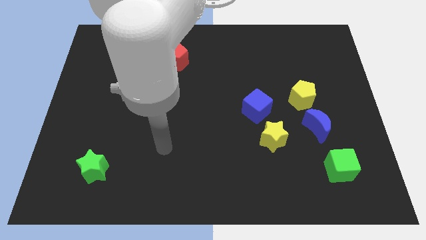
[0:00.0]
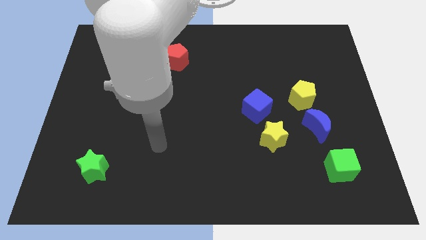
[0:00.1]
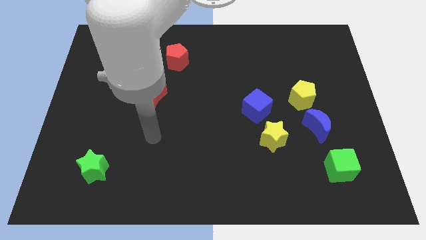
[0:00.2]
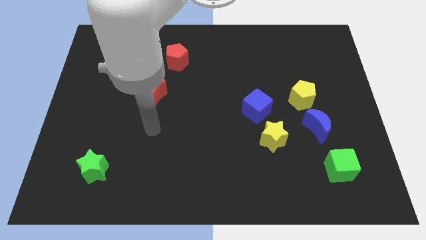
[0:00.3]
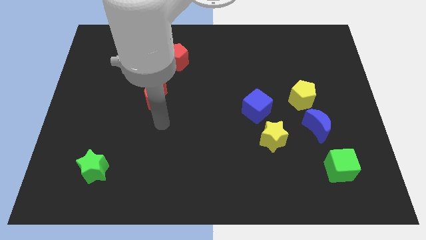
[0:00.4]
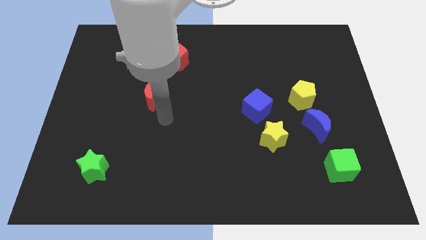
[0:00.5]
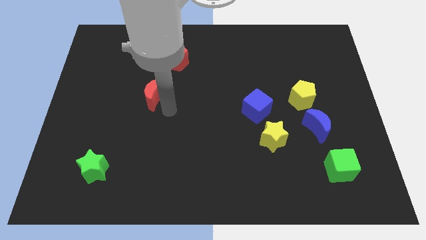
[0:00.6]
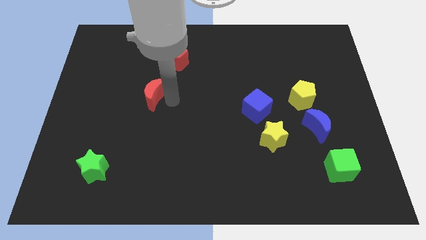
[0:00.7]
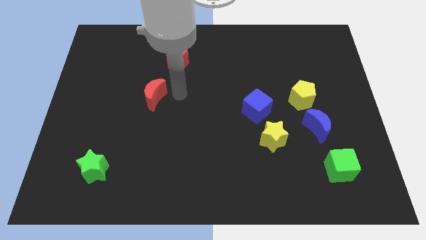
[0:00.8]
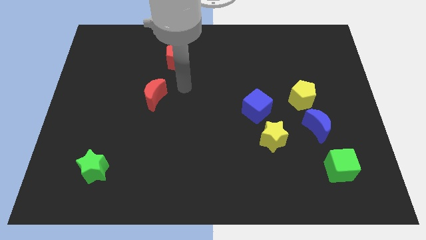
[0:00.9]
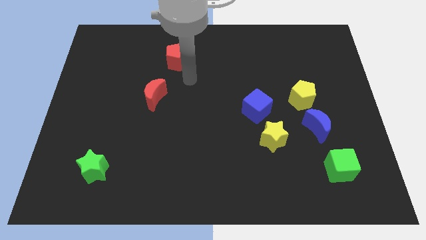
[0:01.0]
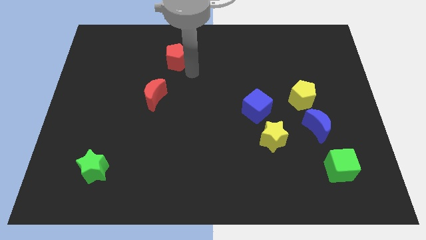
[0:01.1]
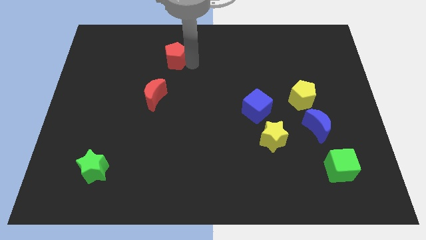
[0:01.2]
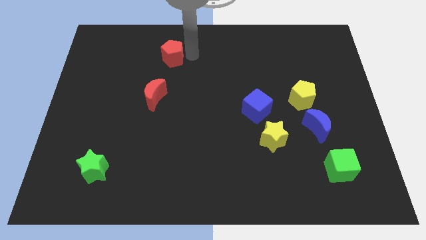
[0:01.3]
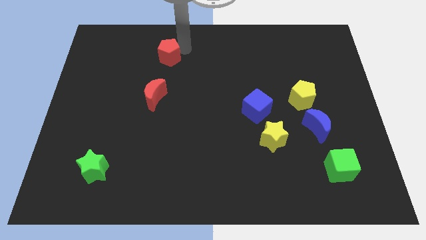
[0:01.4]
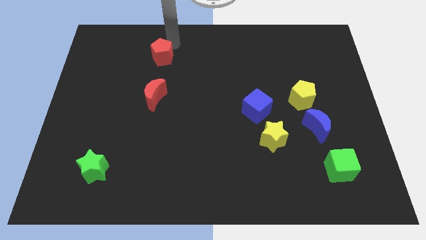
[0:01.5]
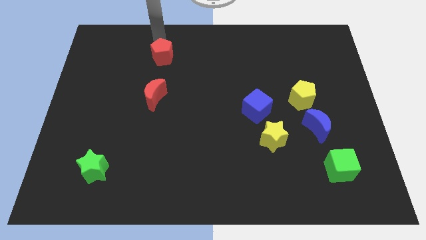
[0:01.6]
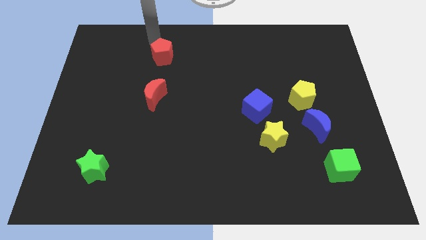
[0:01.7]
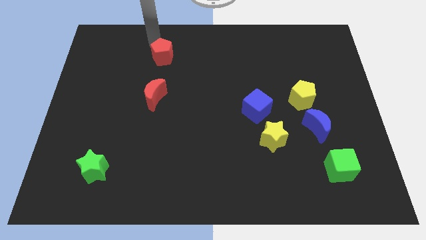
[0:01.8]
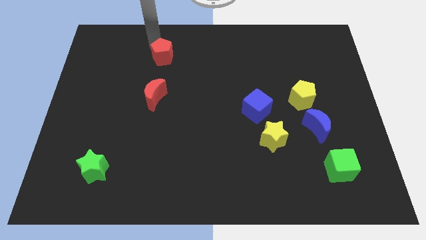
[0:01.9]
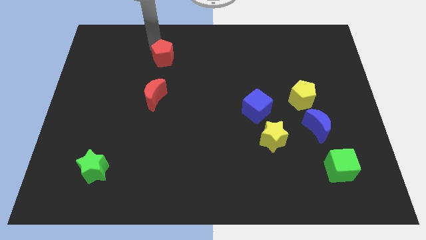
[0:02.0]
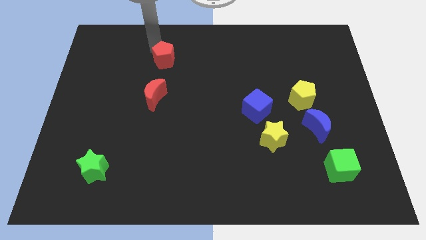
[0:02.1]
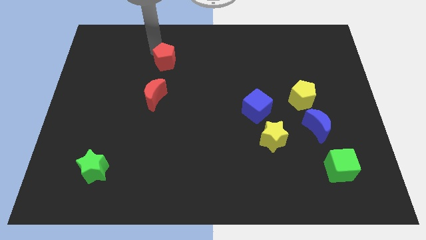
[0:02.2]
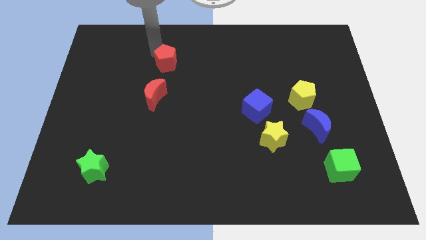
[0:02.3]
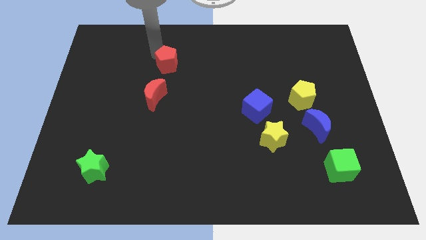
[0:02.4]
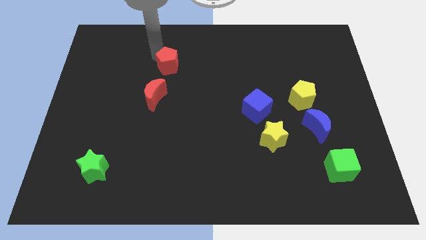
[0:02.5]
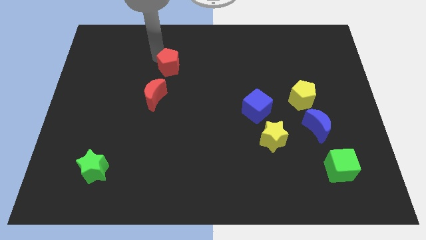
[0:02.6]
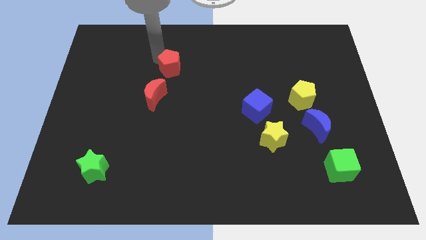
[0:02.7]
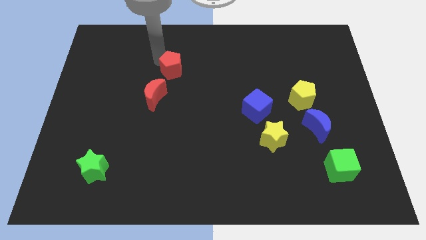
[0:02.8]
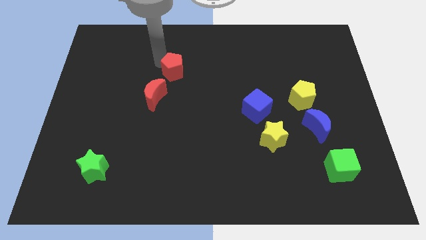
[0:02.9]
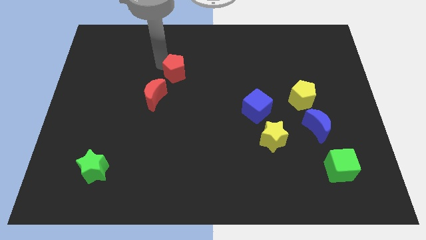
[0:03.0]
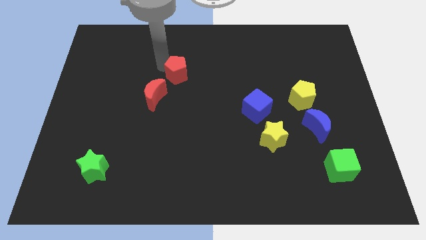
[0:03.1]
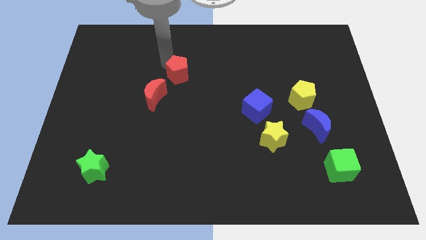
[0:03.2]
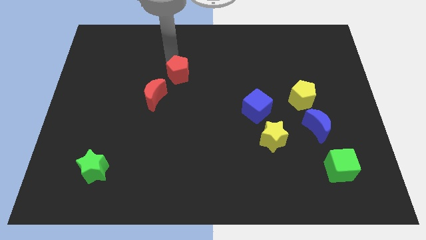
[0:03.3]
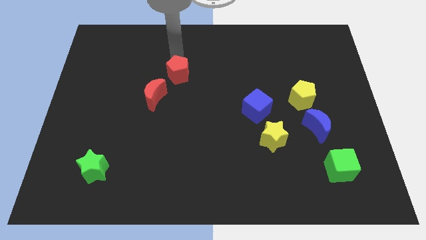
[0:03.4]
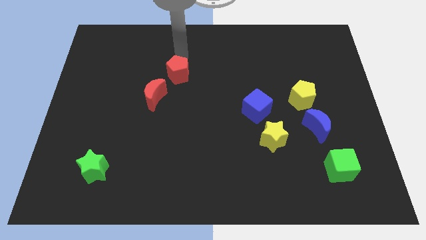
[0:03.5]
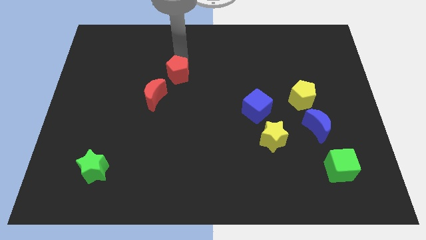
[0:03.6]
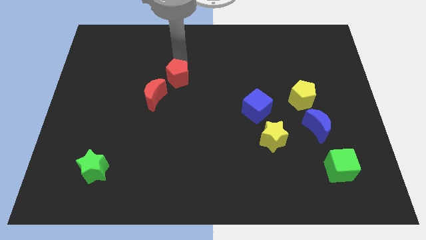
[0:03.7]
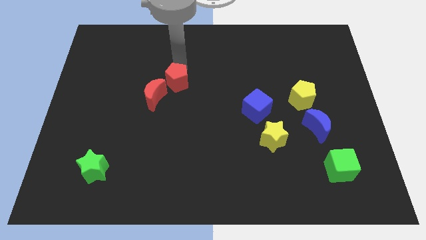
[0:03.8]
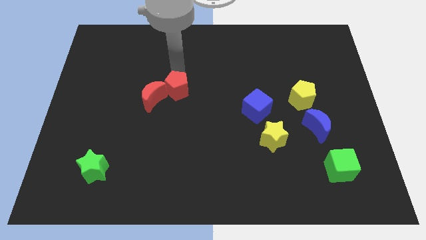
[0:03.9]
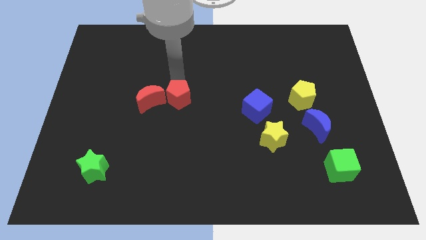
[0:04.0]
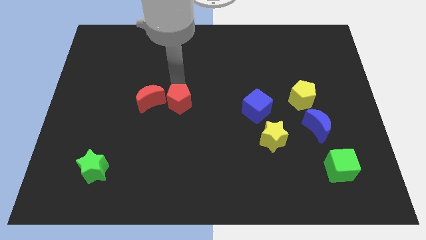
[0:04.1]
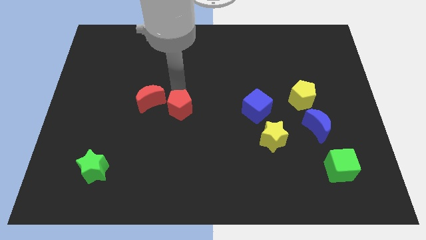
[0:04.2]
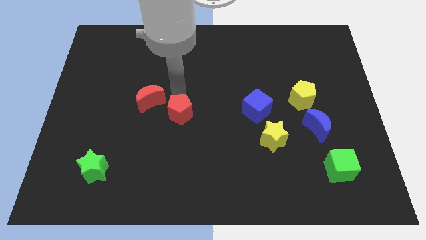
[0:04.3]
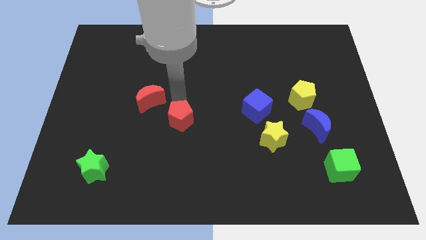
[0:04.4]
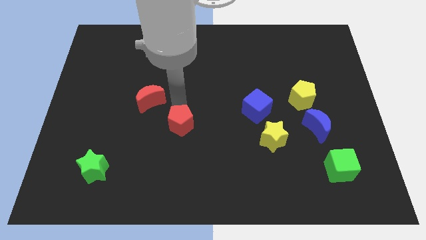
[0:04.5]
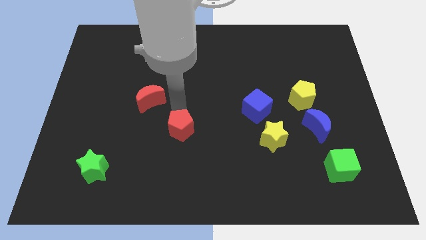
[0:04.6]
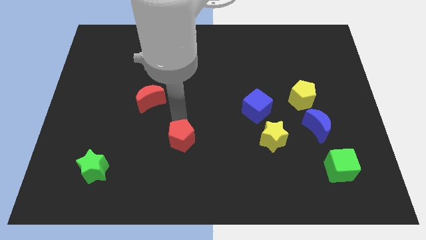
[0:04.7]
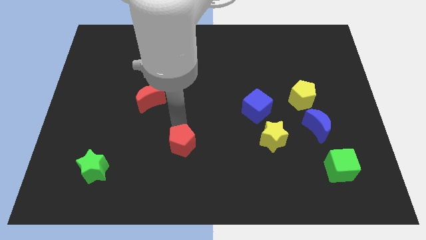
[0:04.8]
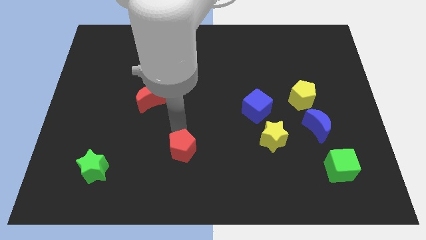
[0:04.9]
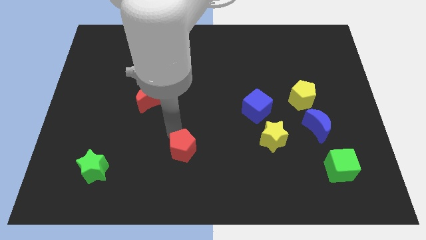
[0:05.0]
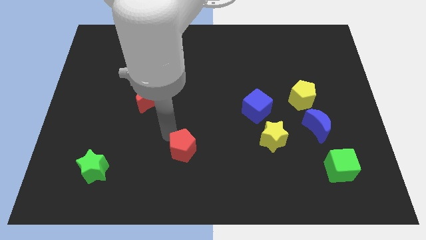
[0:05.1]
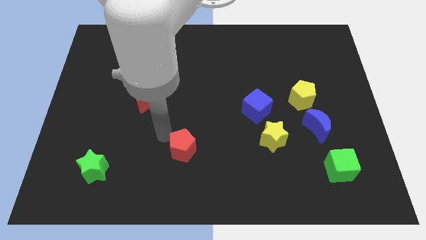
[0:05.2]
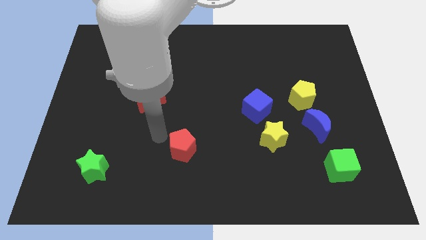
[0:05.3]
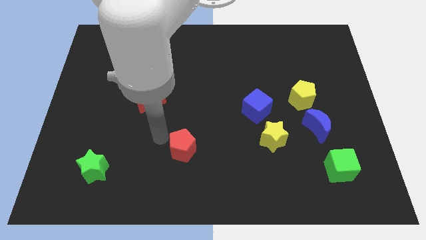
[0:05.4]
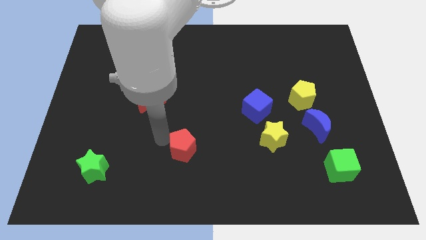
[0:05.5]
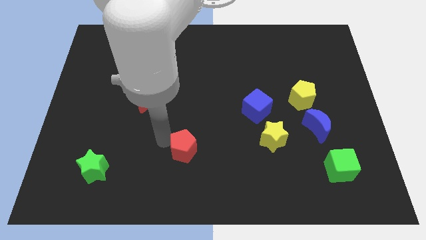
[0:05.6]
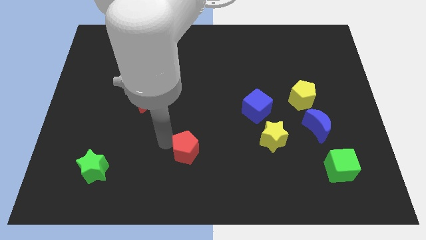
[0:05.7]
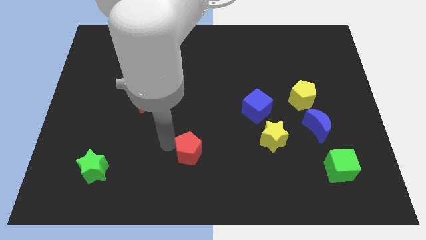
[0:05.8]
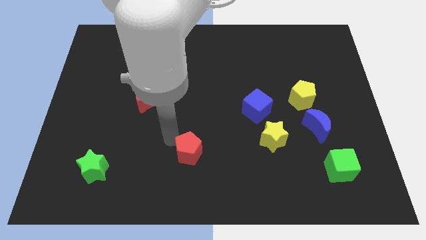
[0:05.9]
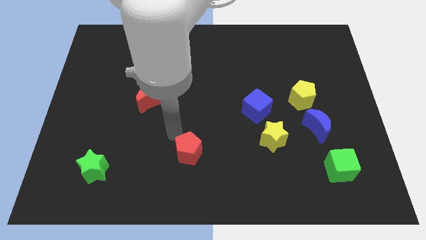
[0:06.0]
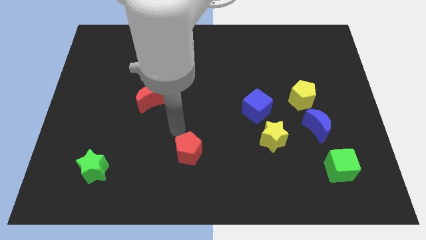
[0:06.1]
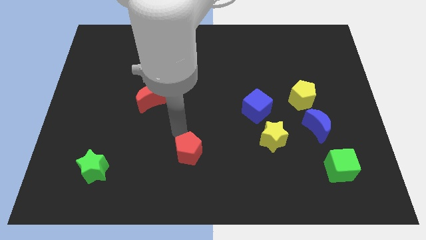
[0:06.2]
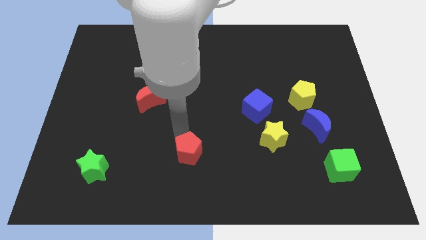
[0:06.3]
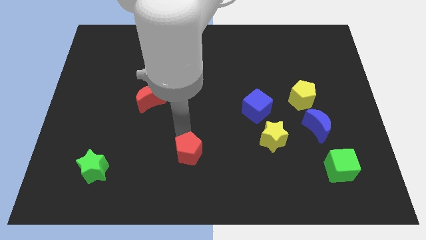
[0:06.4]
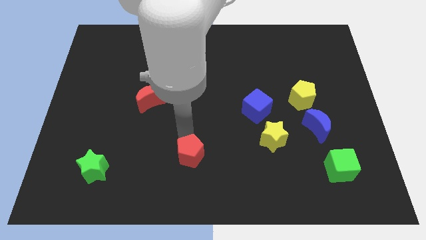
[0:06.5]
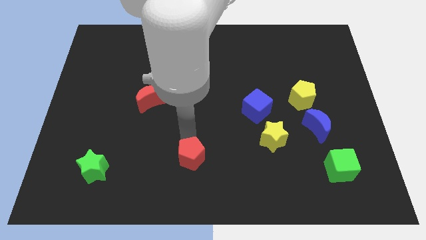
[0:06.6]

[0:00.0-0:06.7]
slide the red pentagon to the bottom
